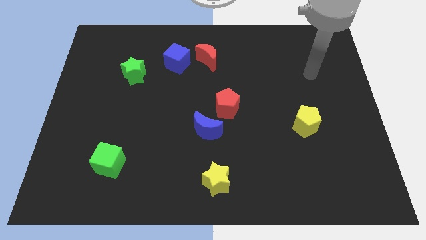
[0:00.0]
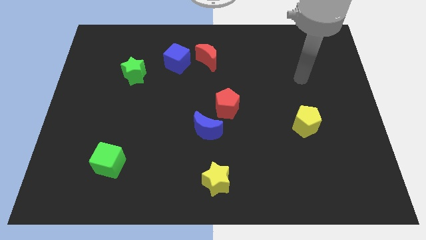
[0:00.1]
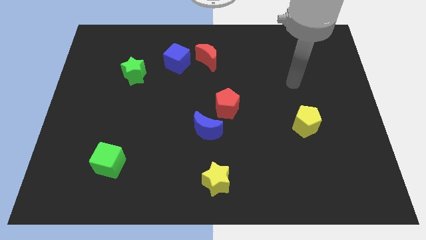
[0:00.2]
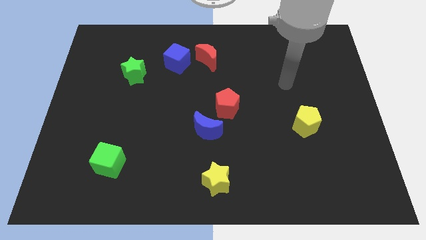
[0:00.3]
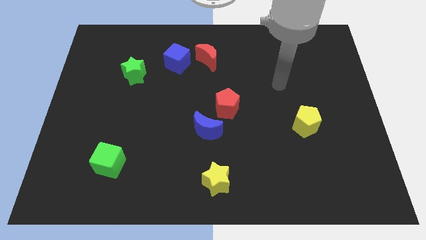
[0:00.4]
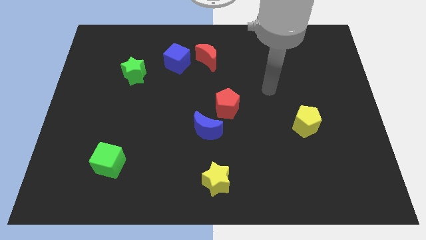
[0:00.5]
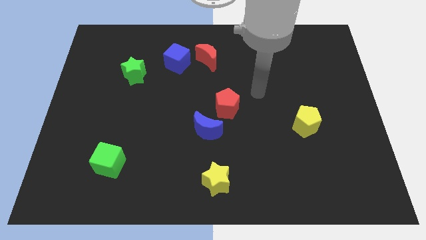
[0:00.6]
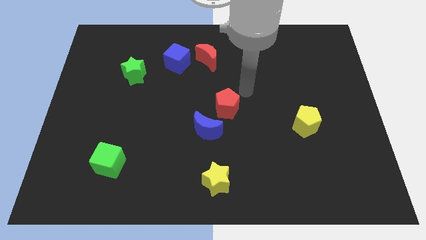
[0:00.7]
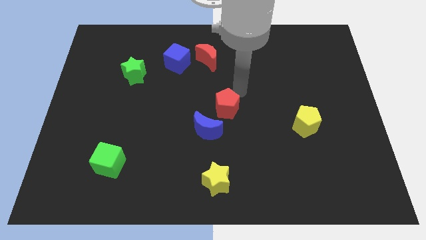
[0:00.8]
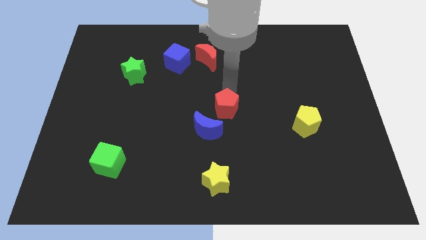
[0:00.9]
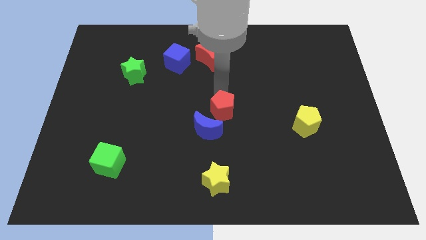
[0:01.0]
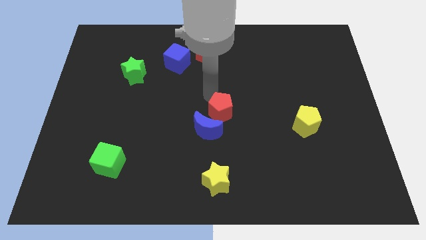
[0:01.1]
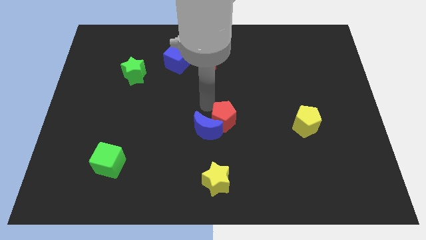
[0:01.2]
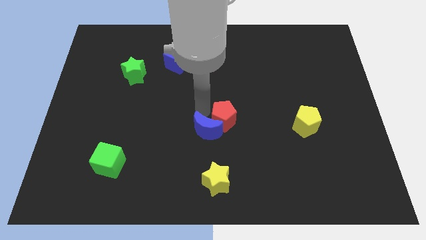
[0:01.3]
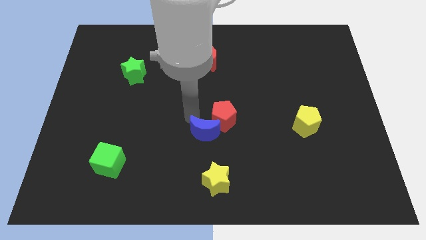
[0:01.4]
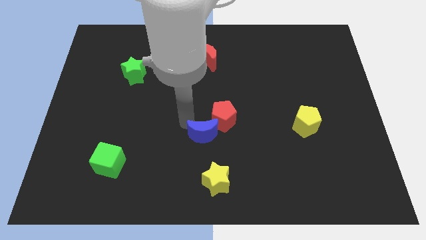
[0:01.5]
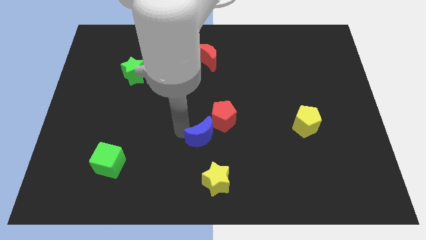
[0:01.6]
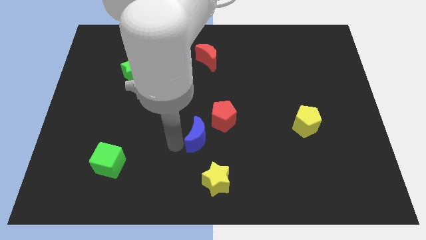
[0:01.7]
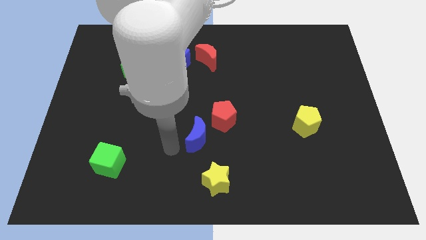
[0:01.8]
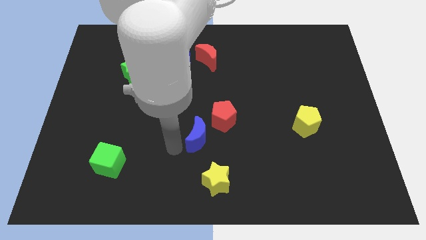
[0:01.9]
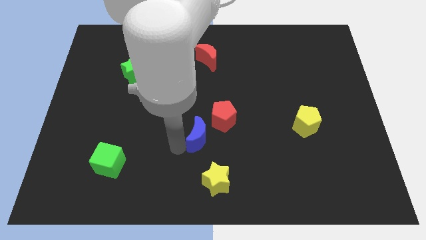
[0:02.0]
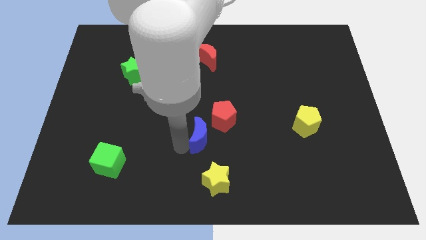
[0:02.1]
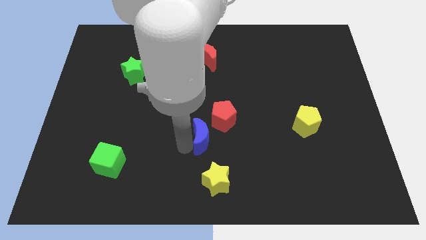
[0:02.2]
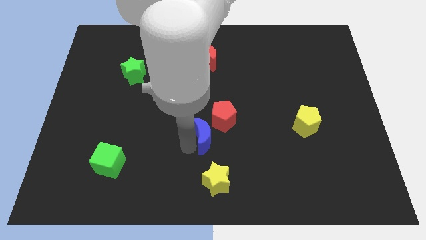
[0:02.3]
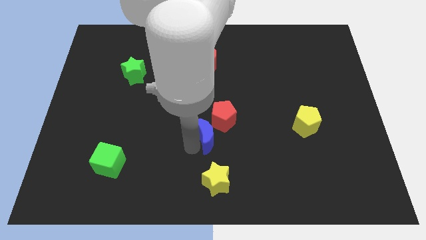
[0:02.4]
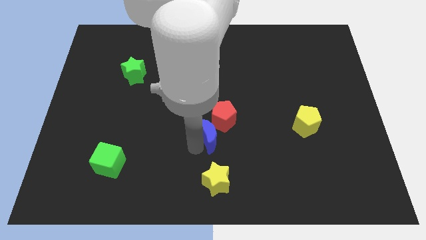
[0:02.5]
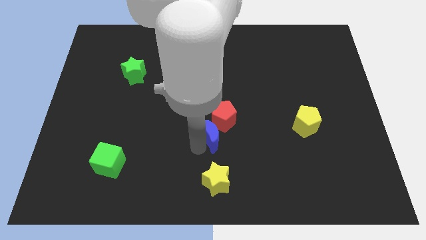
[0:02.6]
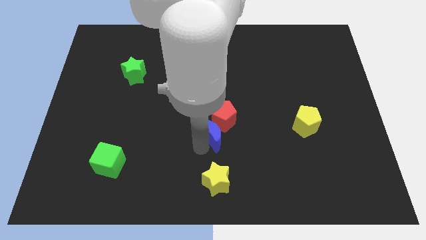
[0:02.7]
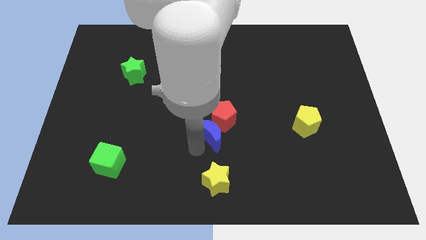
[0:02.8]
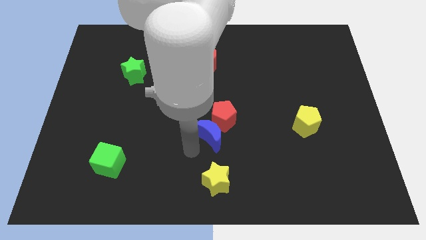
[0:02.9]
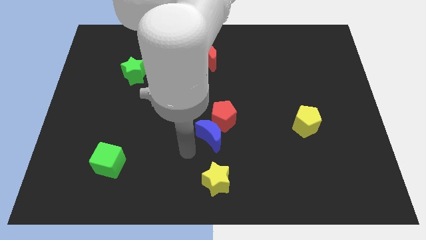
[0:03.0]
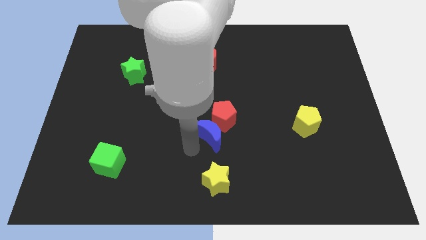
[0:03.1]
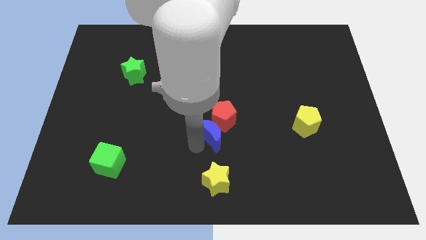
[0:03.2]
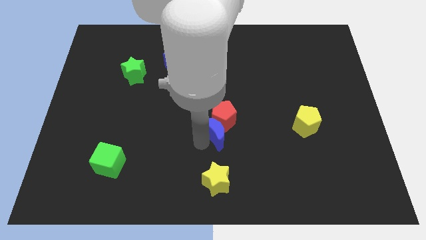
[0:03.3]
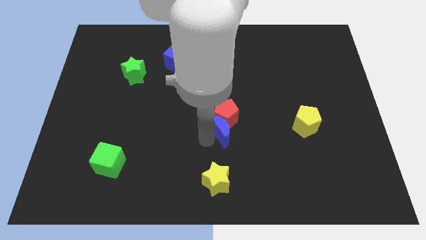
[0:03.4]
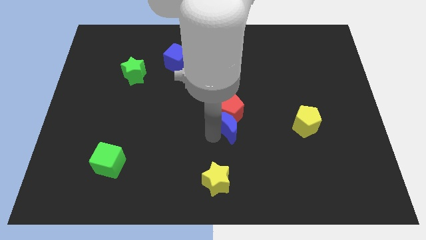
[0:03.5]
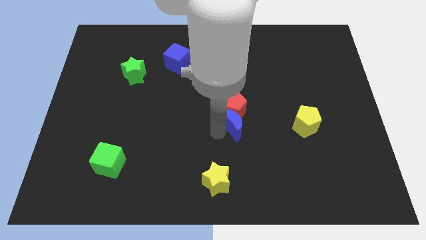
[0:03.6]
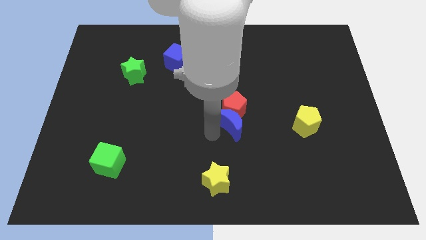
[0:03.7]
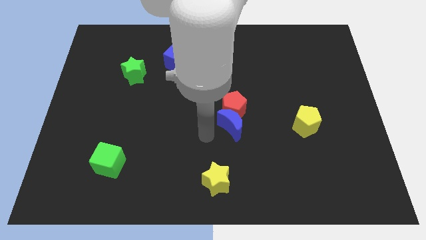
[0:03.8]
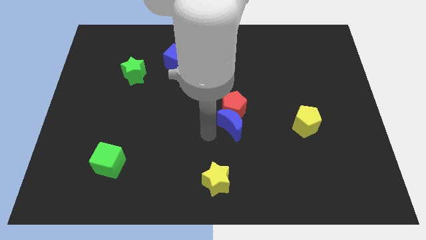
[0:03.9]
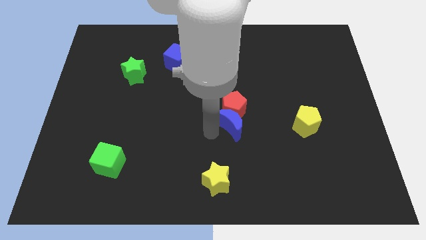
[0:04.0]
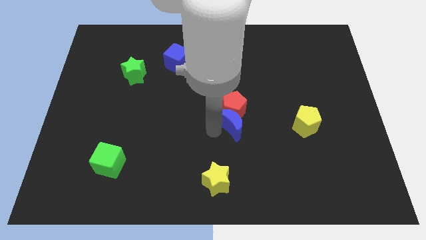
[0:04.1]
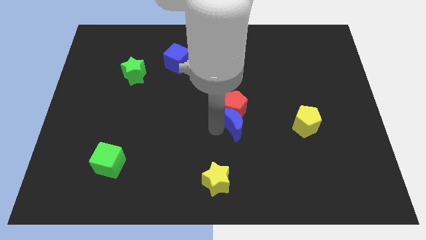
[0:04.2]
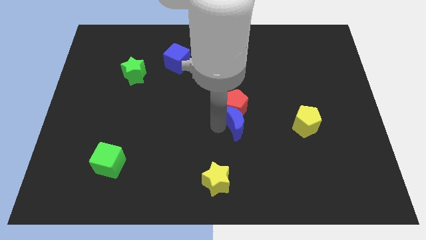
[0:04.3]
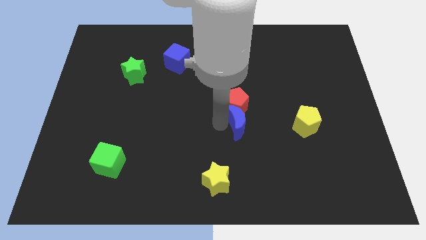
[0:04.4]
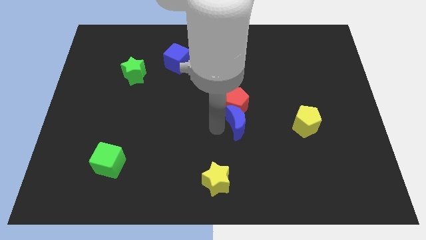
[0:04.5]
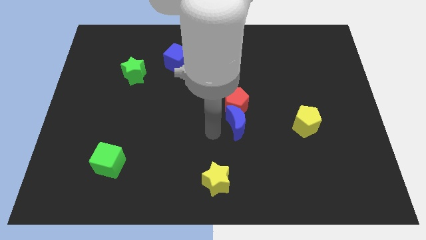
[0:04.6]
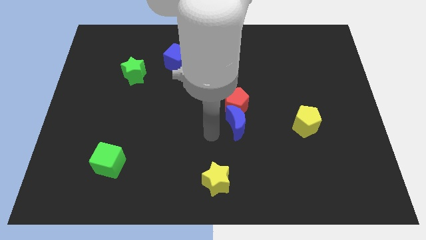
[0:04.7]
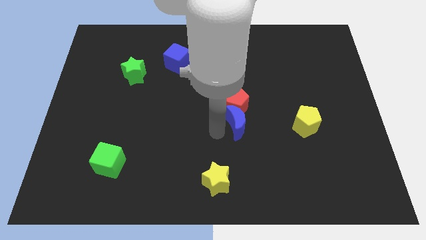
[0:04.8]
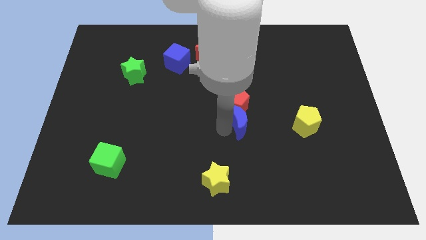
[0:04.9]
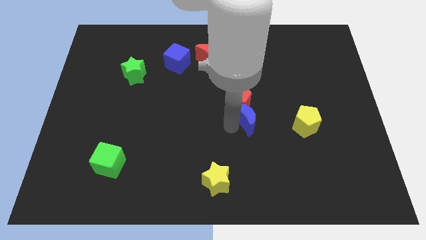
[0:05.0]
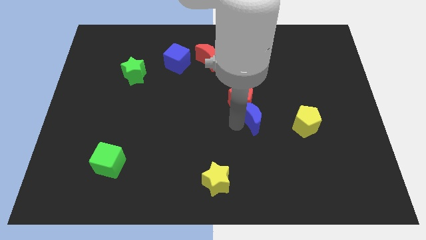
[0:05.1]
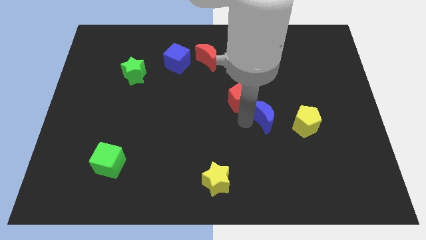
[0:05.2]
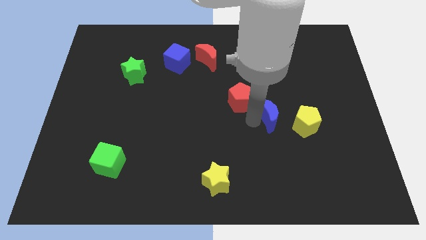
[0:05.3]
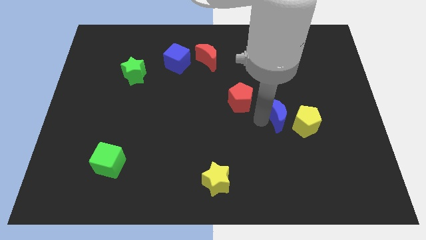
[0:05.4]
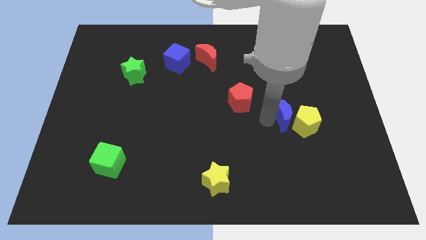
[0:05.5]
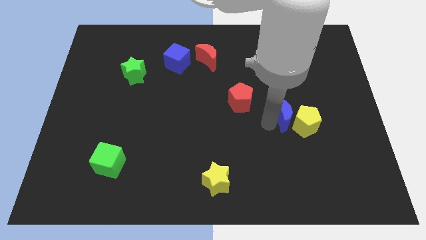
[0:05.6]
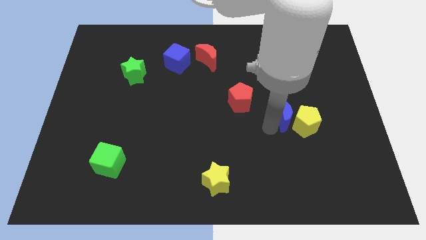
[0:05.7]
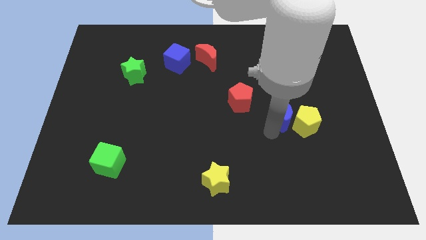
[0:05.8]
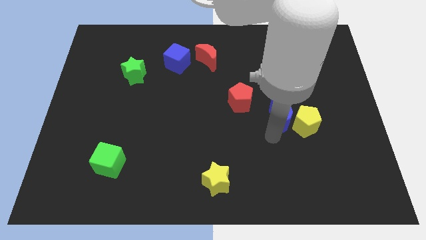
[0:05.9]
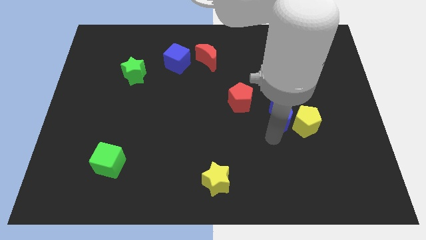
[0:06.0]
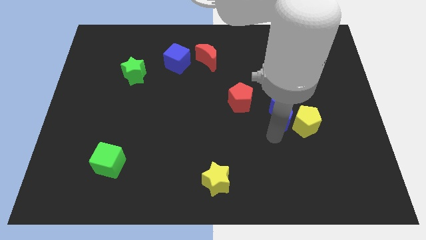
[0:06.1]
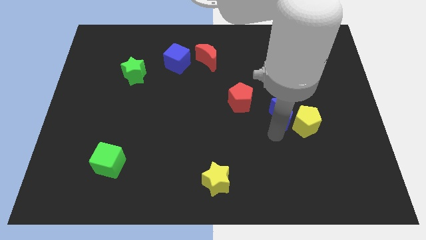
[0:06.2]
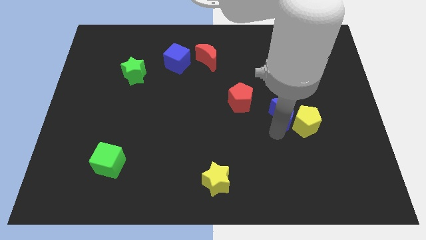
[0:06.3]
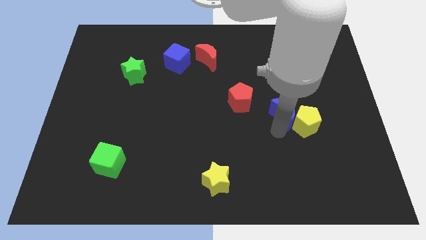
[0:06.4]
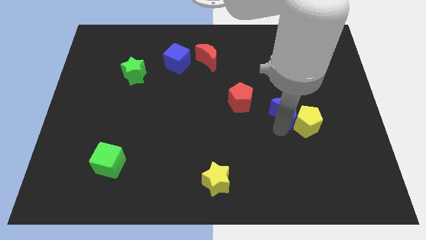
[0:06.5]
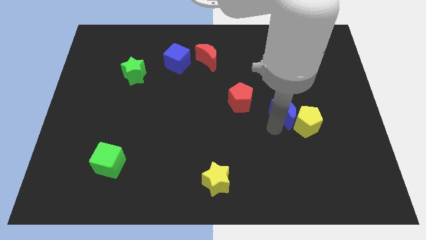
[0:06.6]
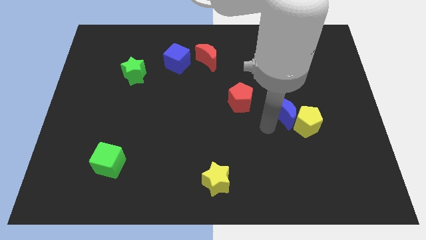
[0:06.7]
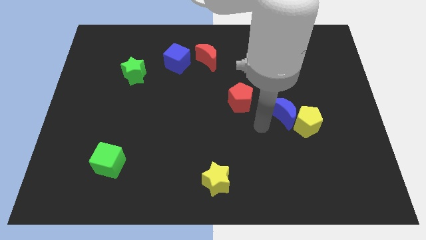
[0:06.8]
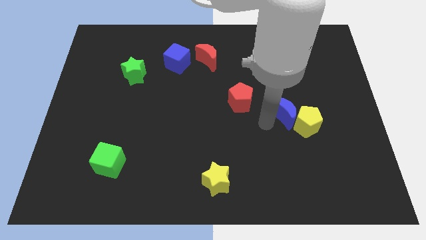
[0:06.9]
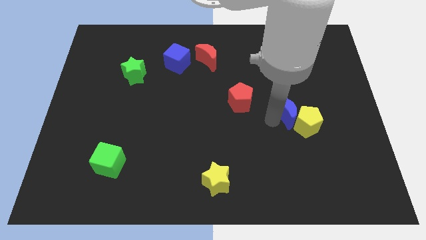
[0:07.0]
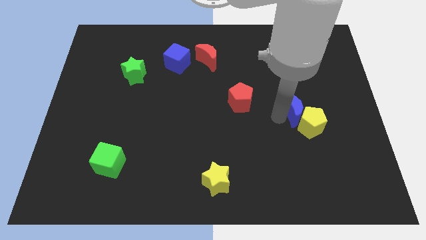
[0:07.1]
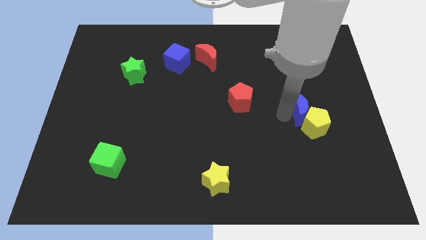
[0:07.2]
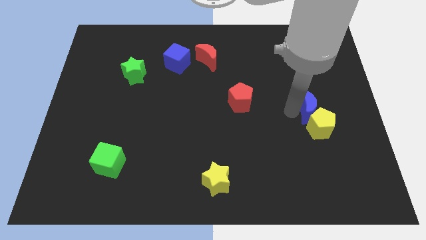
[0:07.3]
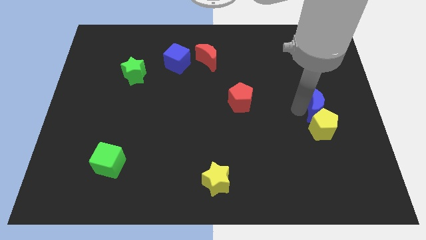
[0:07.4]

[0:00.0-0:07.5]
put the blue moon to the top right side of the yellow pentagon
